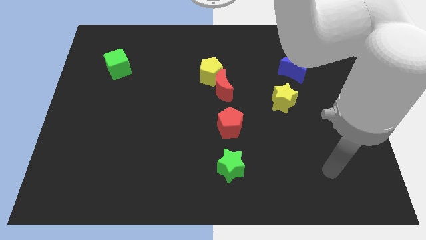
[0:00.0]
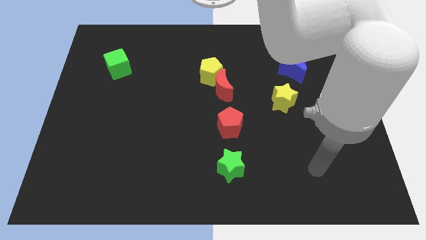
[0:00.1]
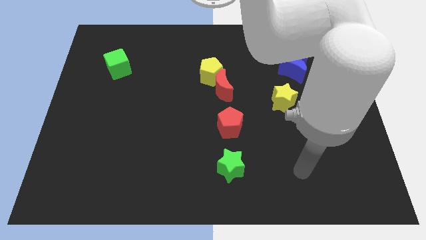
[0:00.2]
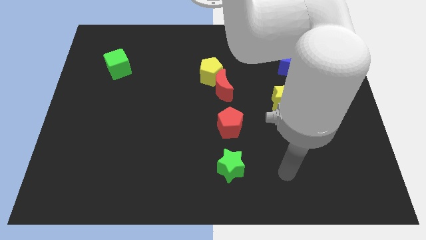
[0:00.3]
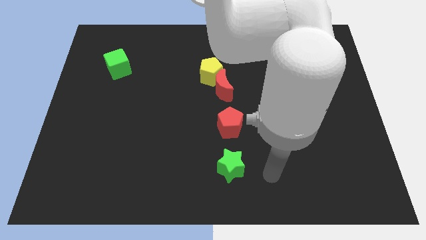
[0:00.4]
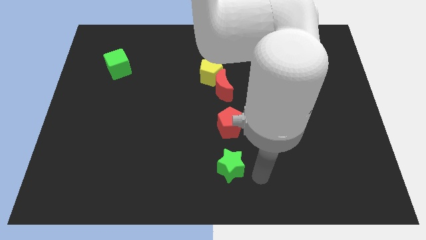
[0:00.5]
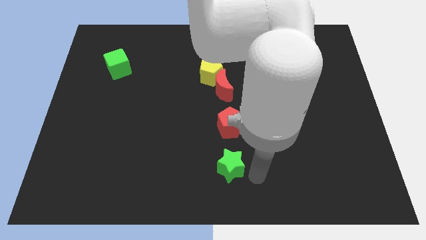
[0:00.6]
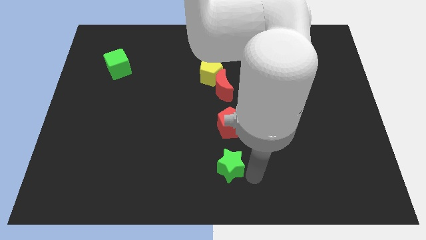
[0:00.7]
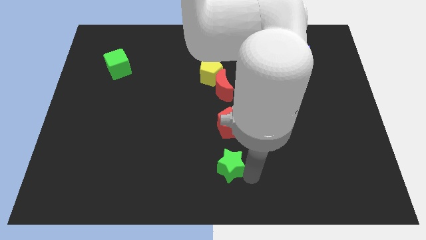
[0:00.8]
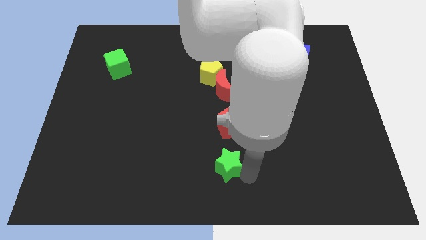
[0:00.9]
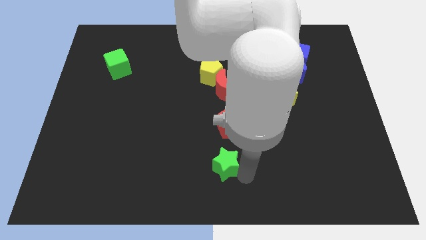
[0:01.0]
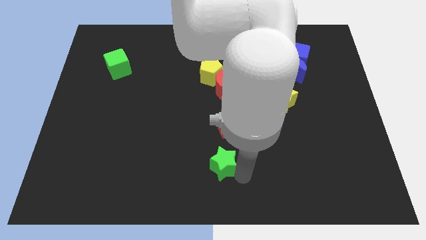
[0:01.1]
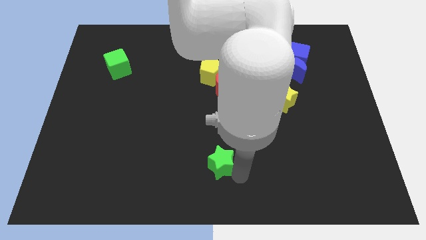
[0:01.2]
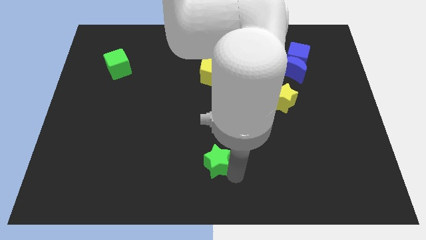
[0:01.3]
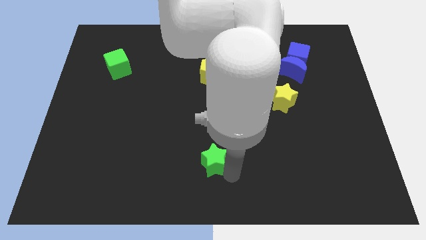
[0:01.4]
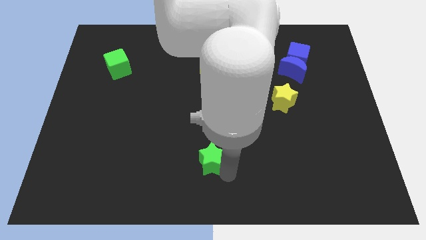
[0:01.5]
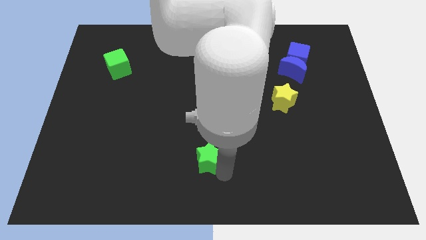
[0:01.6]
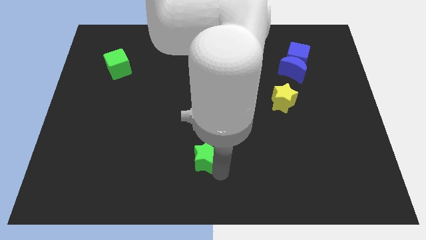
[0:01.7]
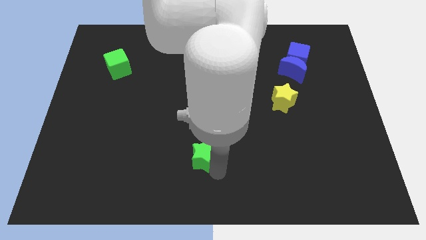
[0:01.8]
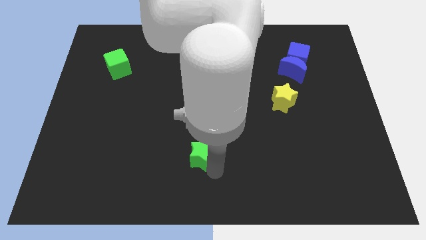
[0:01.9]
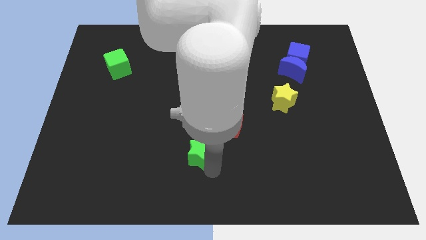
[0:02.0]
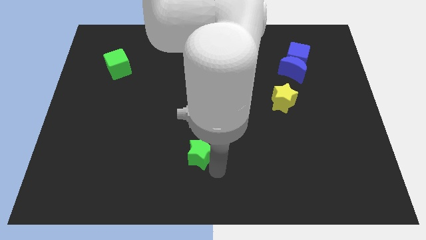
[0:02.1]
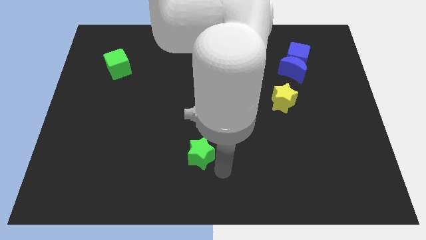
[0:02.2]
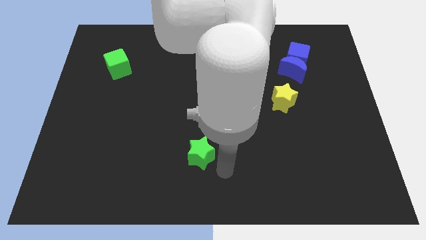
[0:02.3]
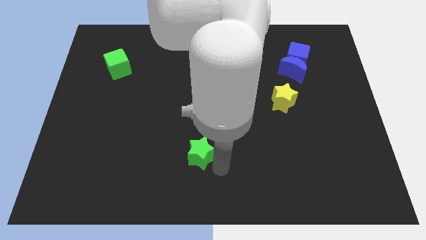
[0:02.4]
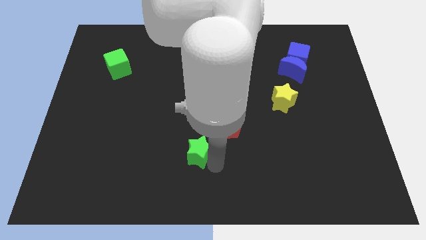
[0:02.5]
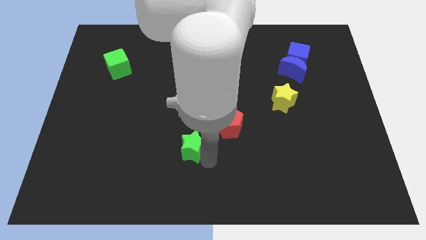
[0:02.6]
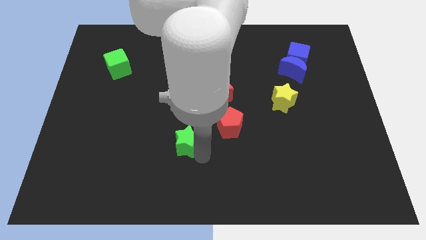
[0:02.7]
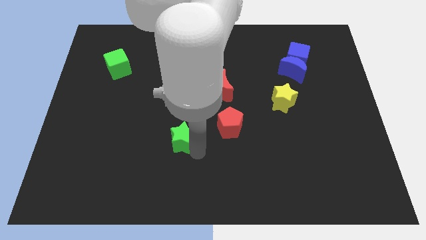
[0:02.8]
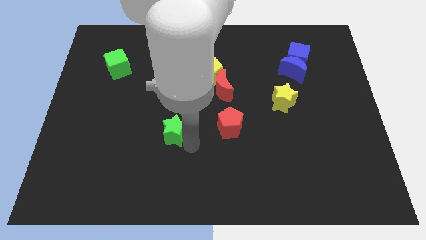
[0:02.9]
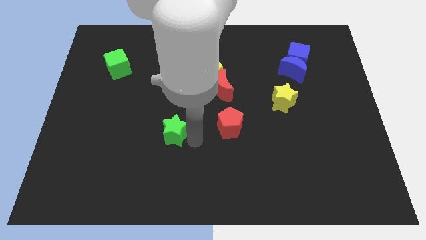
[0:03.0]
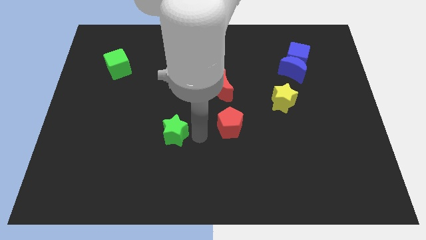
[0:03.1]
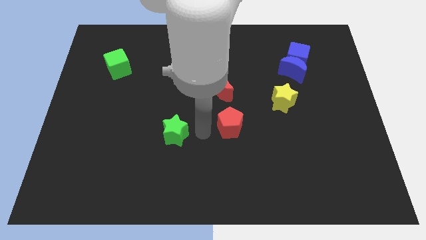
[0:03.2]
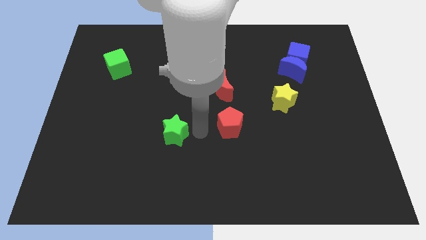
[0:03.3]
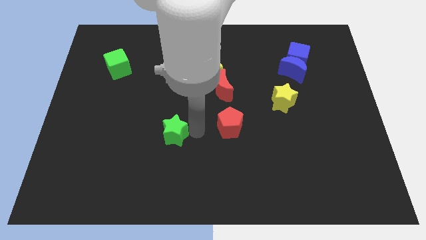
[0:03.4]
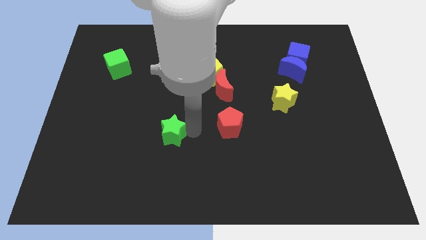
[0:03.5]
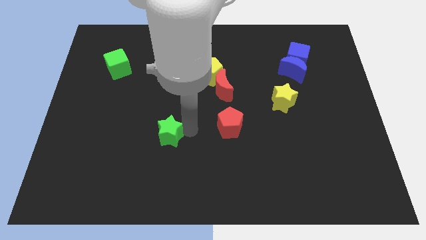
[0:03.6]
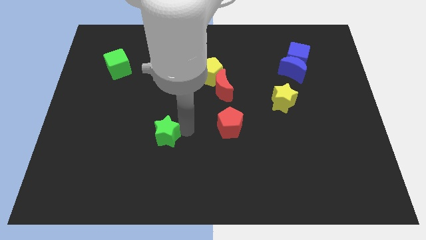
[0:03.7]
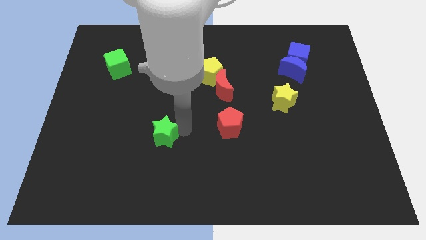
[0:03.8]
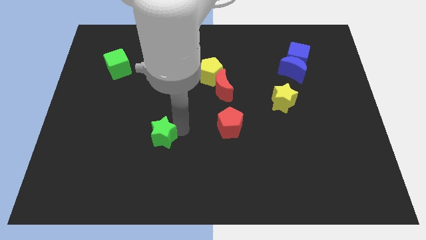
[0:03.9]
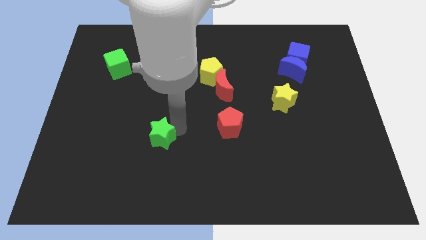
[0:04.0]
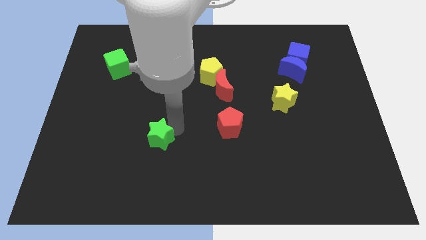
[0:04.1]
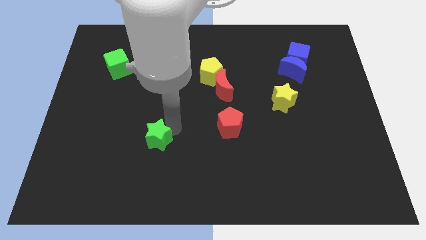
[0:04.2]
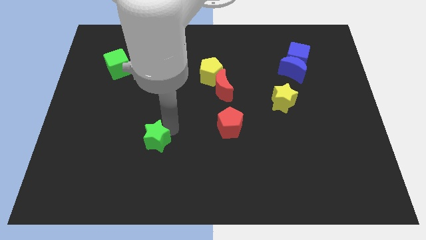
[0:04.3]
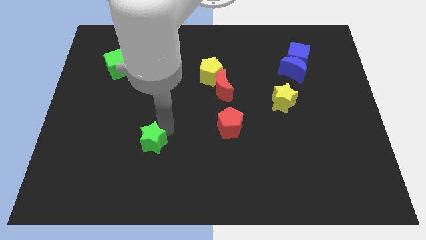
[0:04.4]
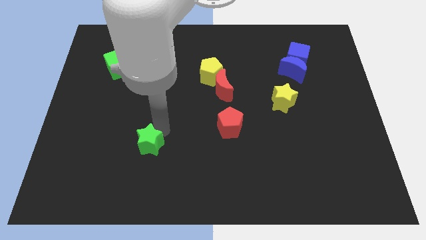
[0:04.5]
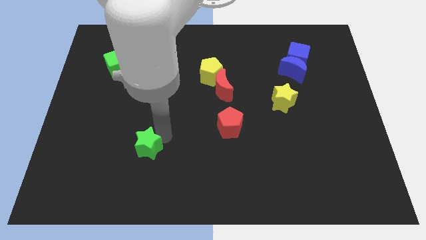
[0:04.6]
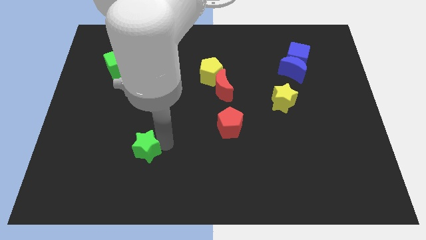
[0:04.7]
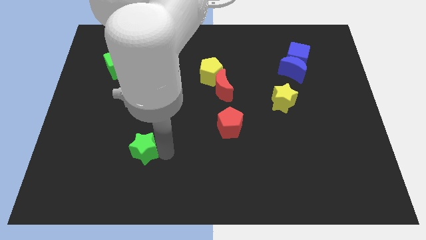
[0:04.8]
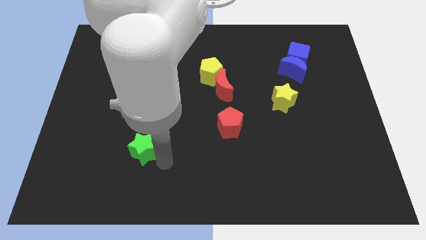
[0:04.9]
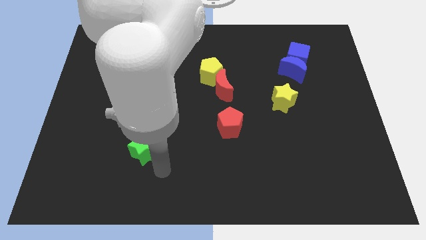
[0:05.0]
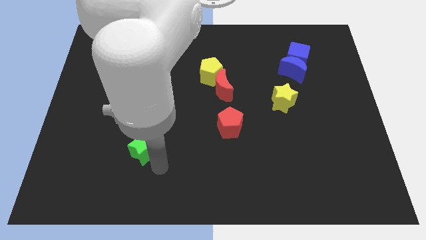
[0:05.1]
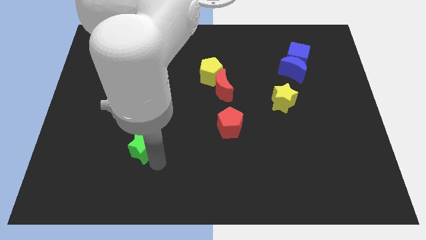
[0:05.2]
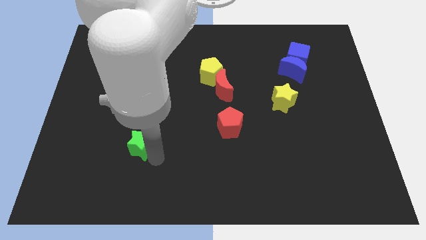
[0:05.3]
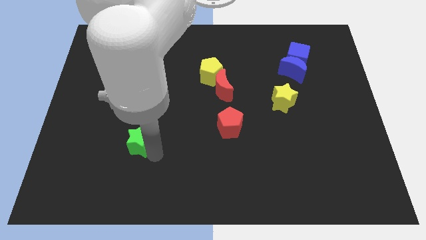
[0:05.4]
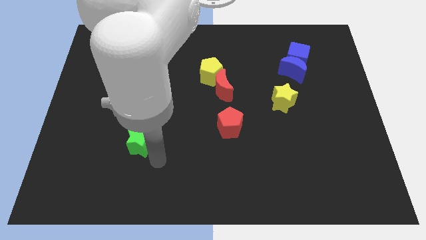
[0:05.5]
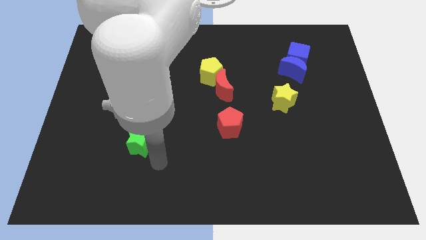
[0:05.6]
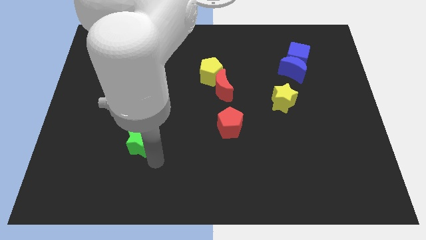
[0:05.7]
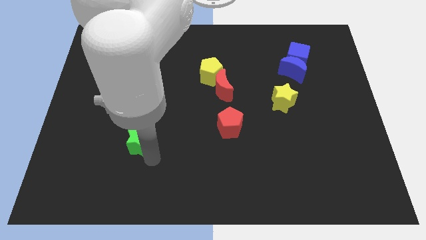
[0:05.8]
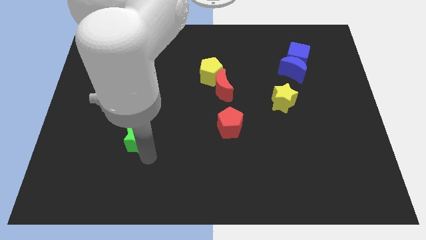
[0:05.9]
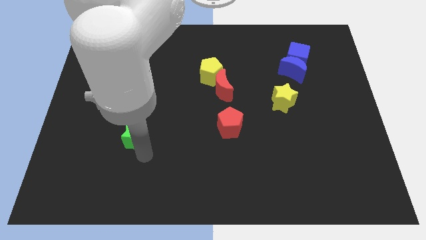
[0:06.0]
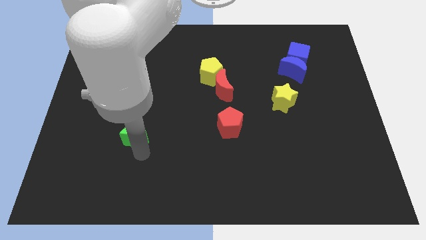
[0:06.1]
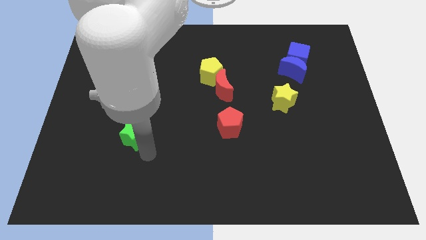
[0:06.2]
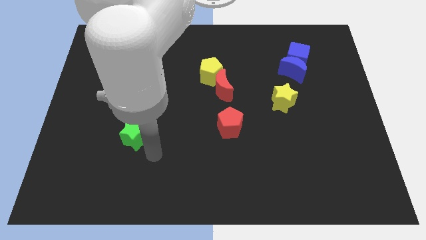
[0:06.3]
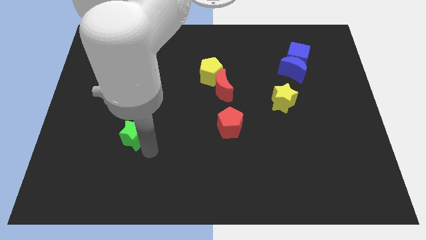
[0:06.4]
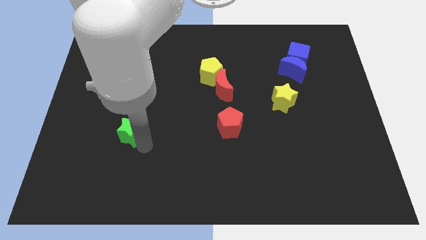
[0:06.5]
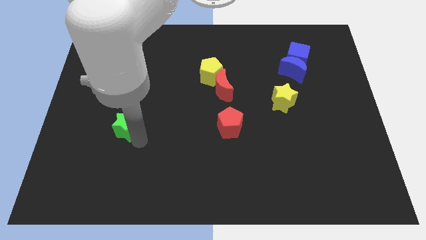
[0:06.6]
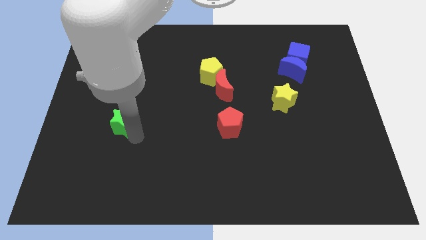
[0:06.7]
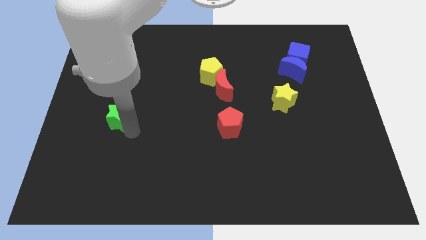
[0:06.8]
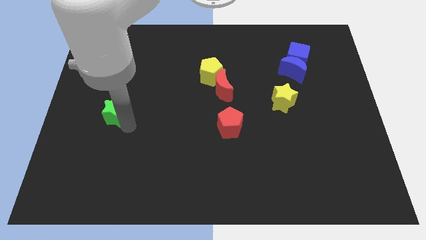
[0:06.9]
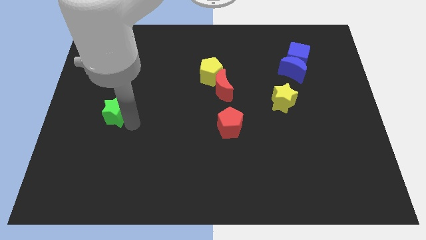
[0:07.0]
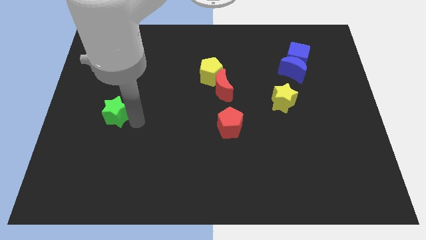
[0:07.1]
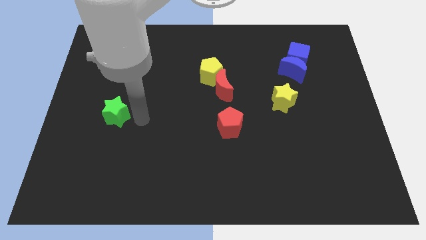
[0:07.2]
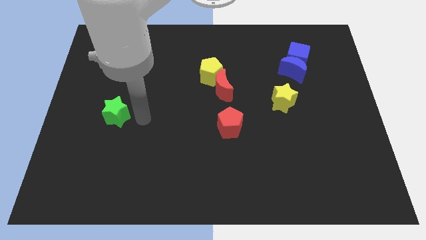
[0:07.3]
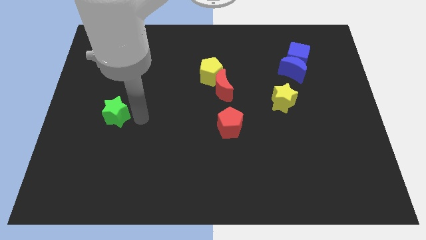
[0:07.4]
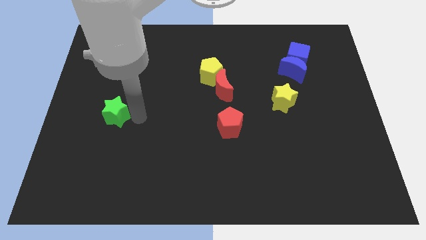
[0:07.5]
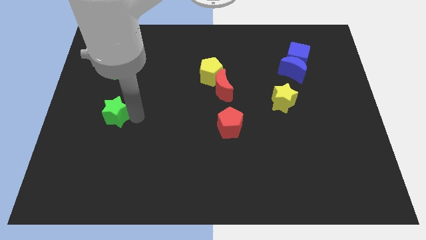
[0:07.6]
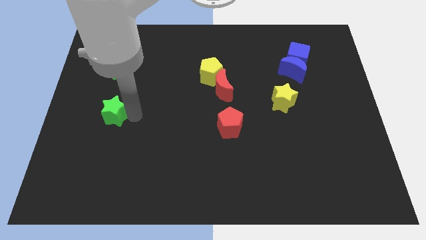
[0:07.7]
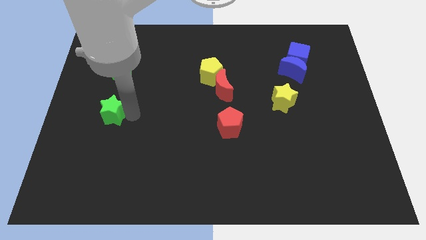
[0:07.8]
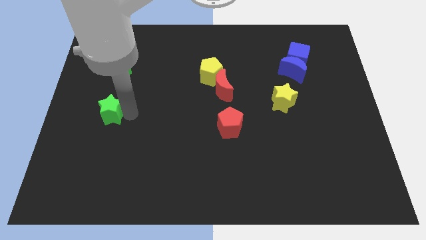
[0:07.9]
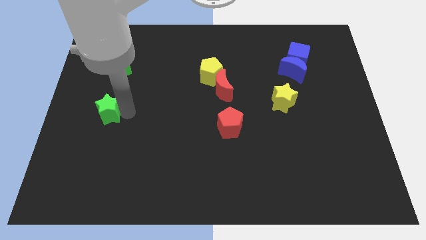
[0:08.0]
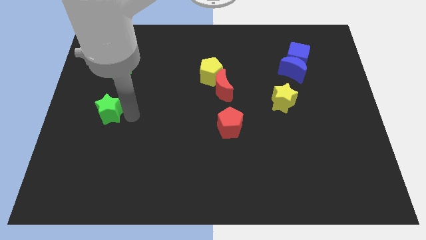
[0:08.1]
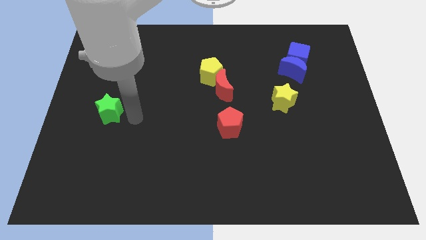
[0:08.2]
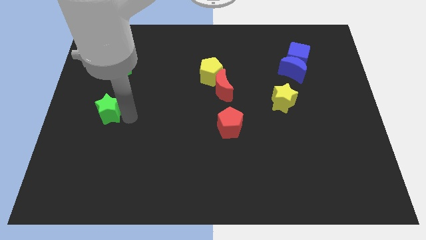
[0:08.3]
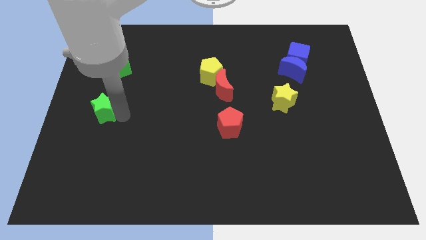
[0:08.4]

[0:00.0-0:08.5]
move the green star to the left side
